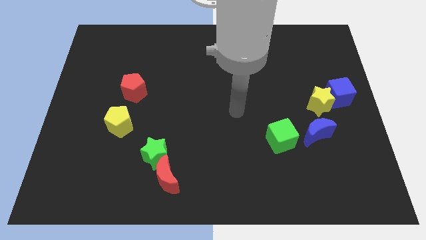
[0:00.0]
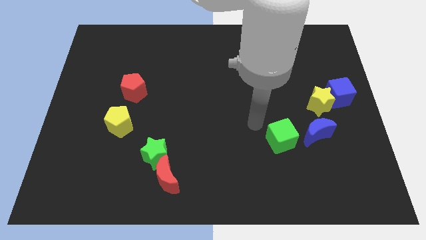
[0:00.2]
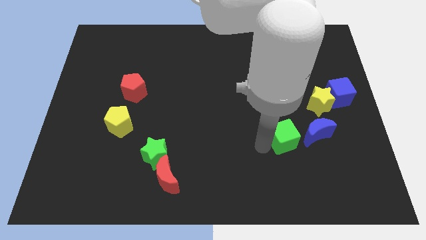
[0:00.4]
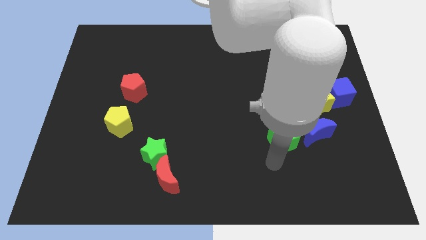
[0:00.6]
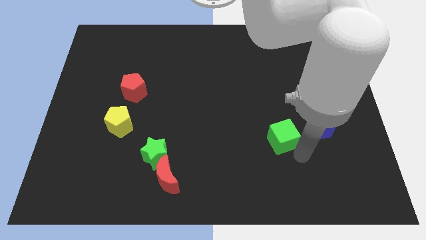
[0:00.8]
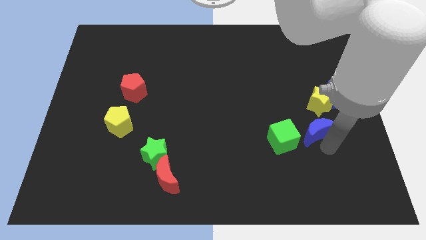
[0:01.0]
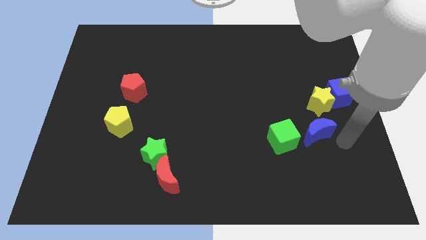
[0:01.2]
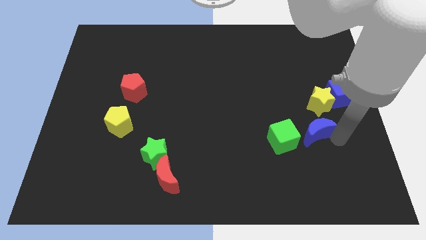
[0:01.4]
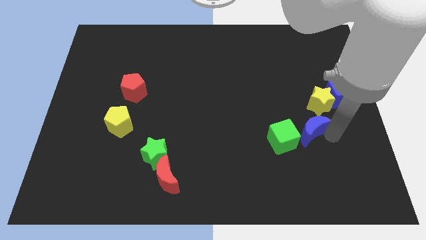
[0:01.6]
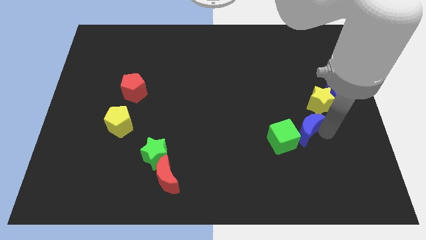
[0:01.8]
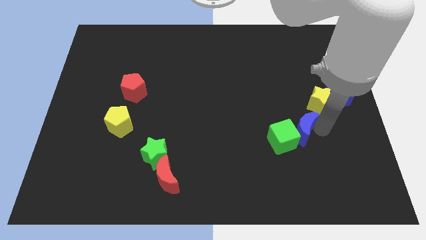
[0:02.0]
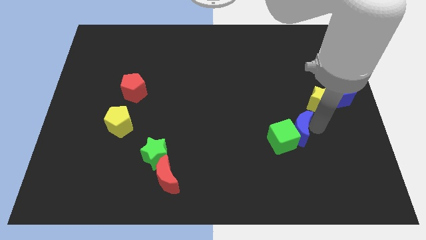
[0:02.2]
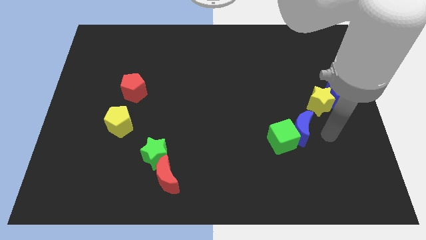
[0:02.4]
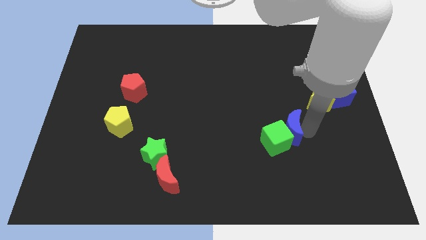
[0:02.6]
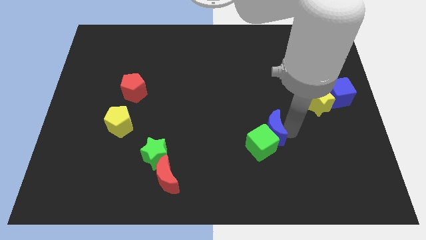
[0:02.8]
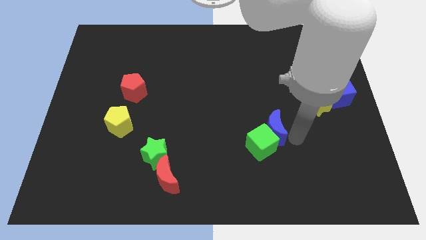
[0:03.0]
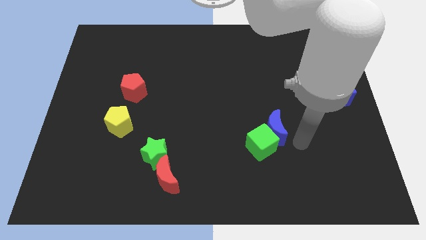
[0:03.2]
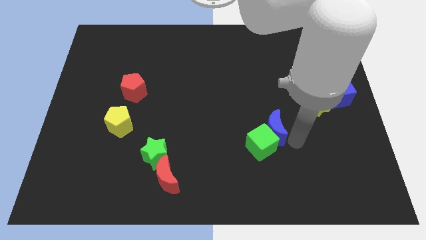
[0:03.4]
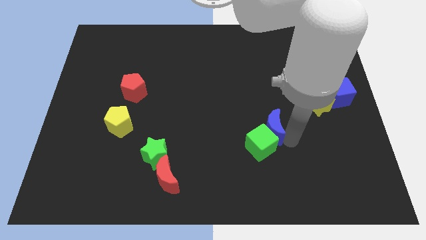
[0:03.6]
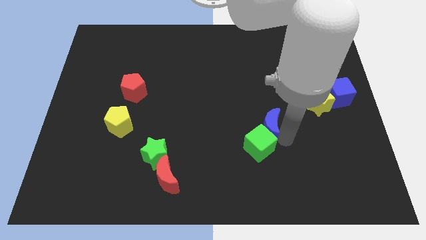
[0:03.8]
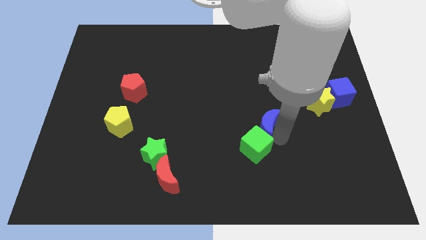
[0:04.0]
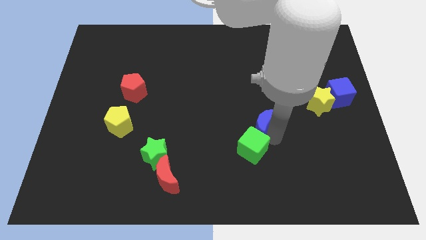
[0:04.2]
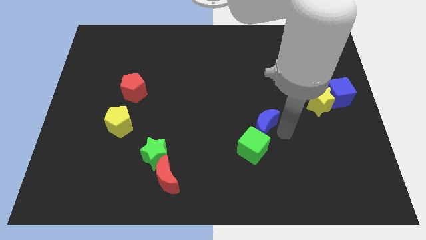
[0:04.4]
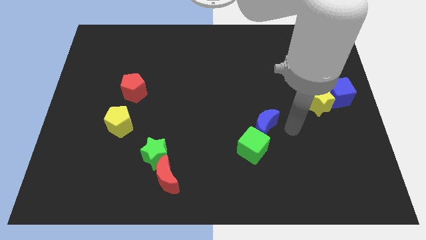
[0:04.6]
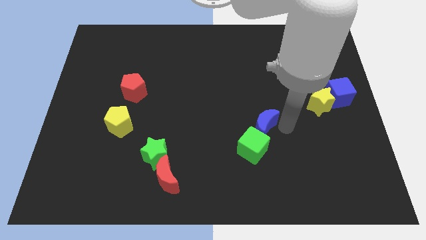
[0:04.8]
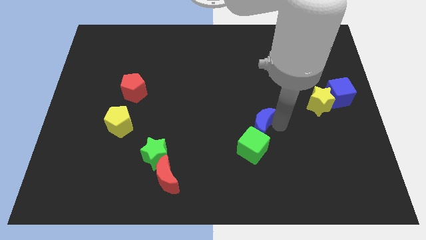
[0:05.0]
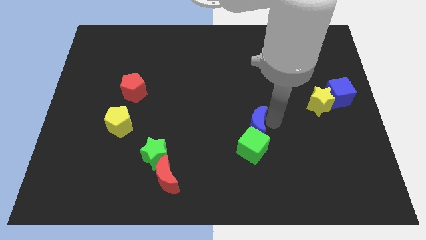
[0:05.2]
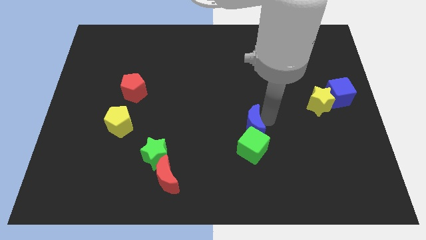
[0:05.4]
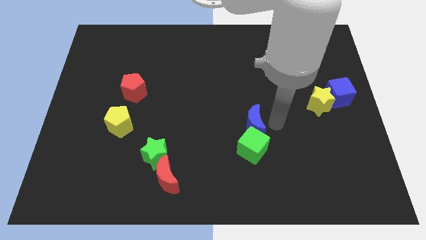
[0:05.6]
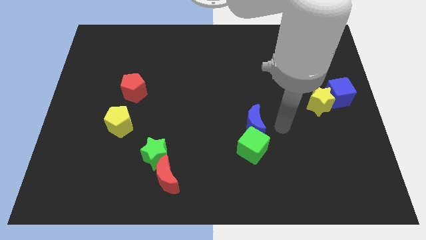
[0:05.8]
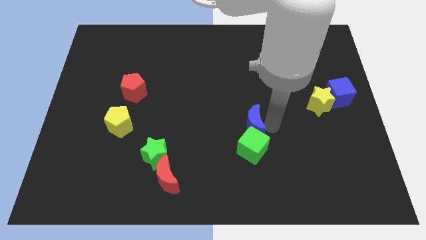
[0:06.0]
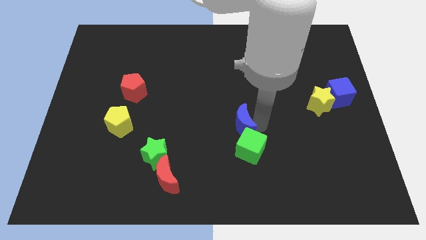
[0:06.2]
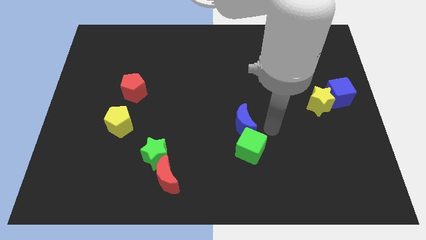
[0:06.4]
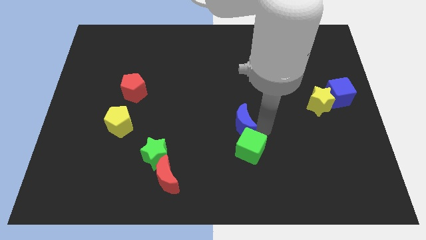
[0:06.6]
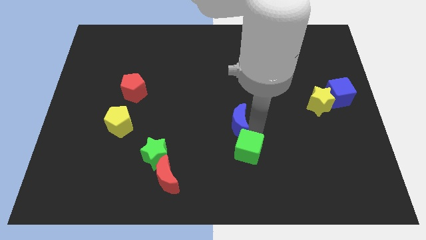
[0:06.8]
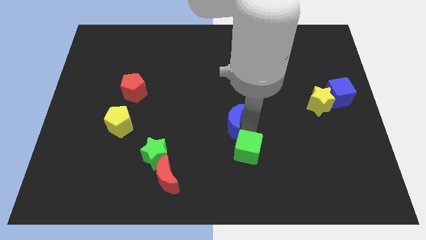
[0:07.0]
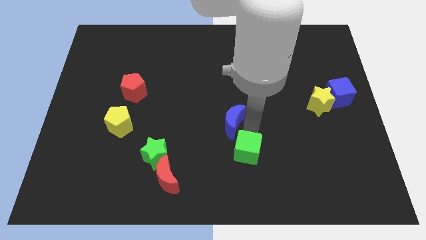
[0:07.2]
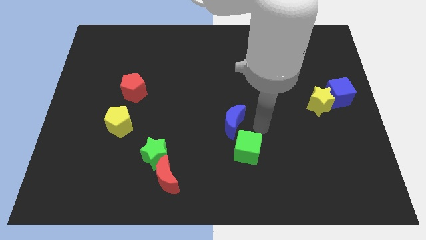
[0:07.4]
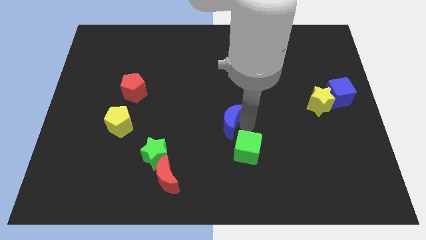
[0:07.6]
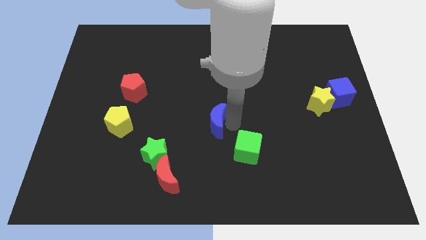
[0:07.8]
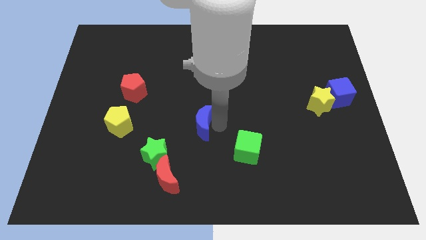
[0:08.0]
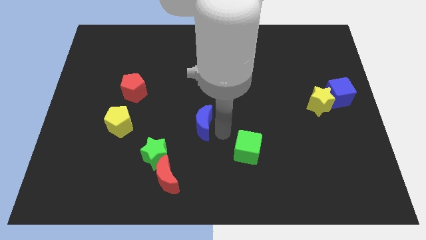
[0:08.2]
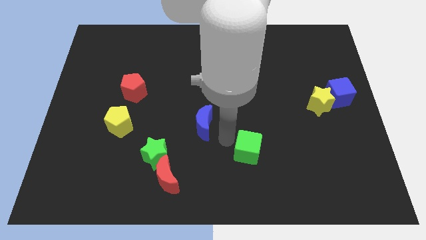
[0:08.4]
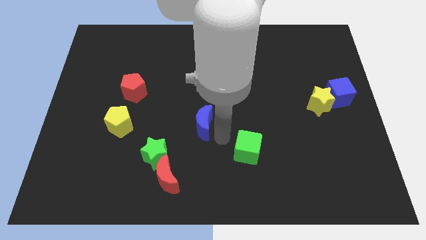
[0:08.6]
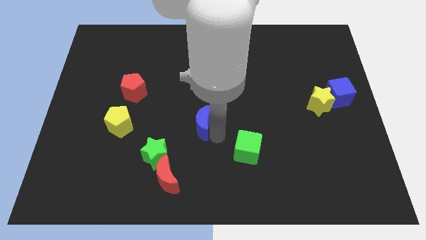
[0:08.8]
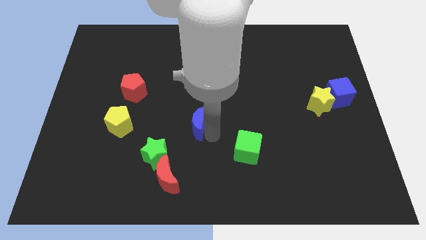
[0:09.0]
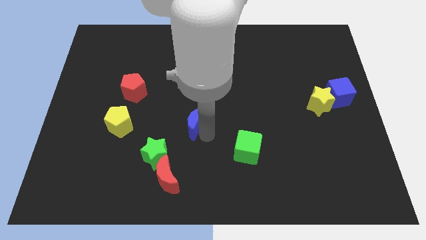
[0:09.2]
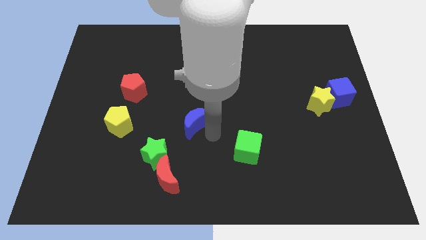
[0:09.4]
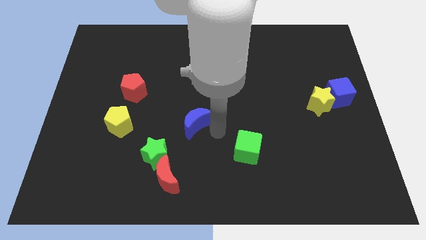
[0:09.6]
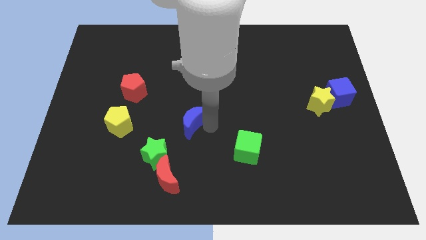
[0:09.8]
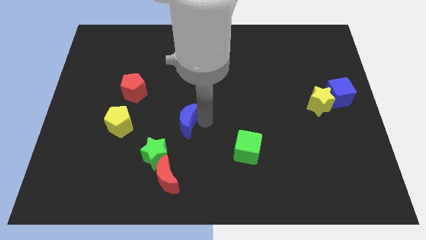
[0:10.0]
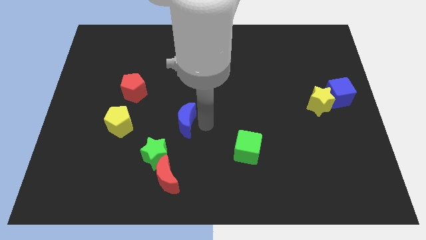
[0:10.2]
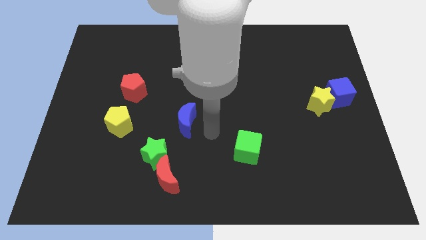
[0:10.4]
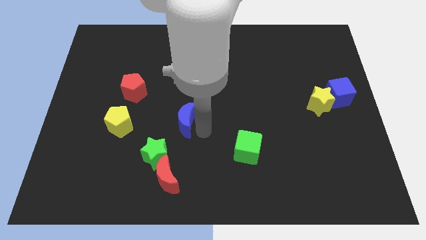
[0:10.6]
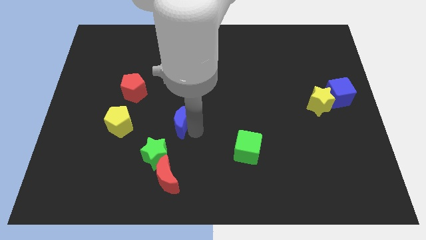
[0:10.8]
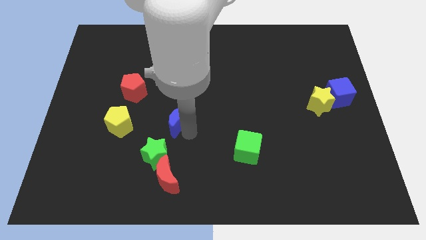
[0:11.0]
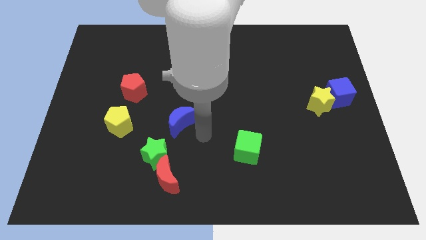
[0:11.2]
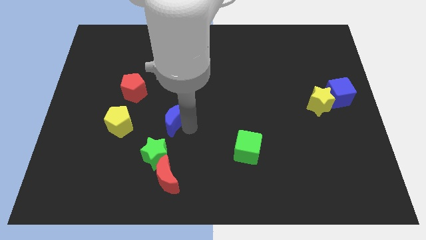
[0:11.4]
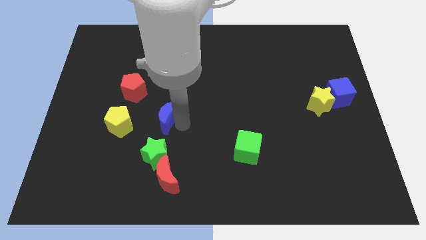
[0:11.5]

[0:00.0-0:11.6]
put the blue moon diagonally down and to the right of the red pentagon
